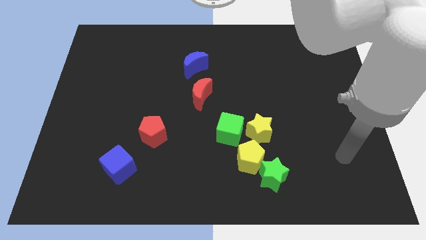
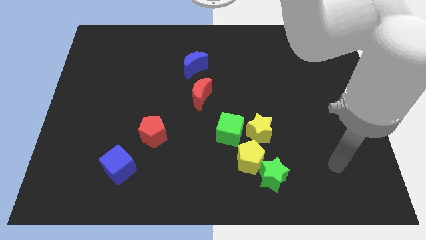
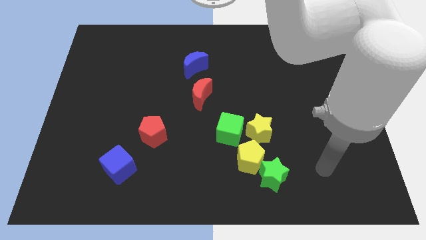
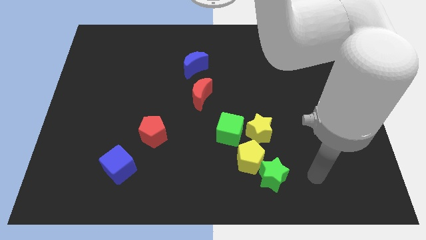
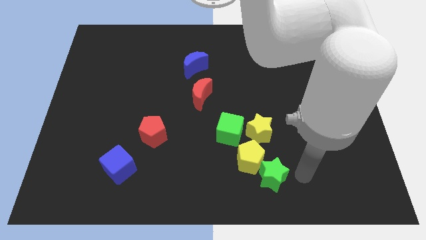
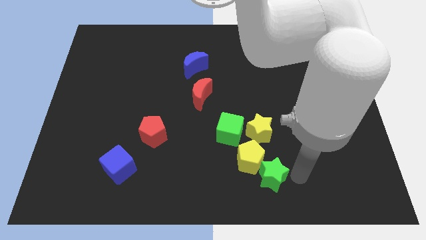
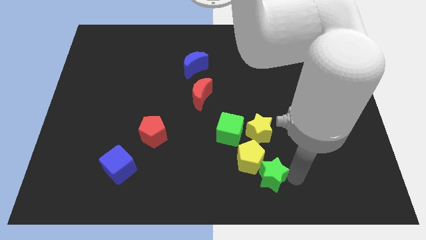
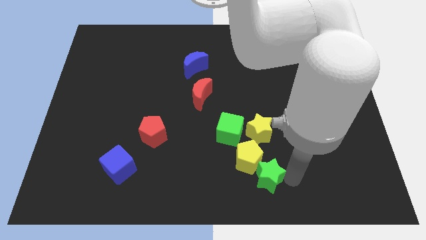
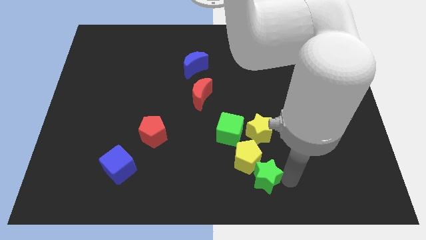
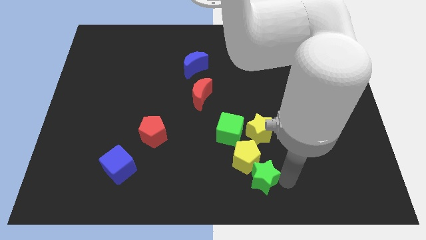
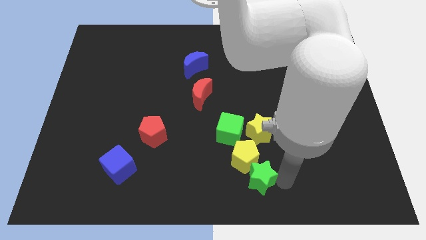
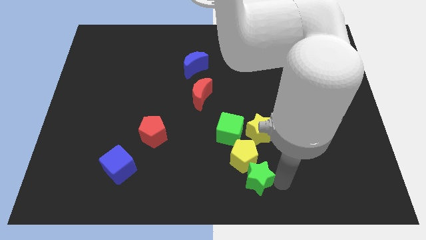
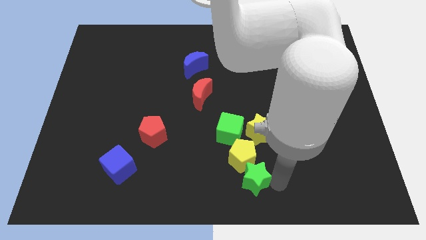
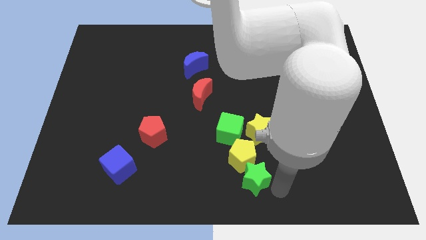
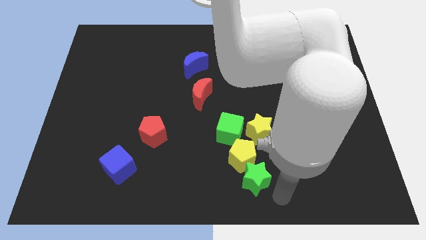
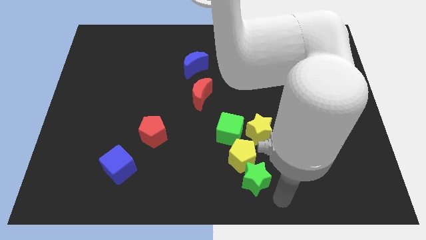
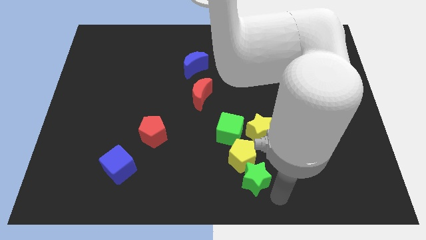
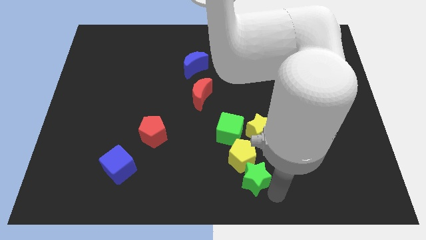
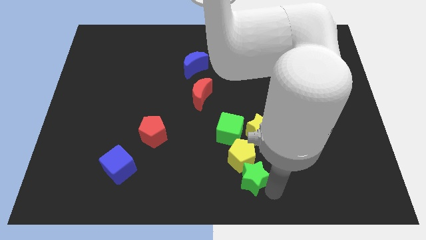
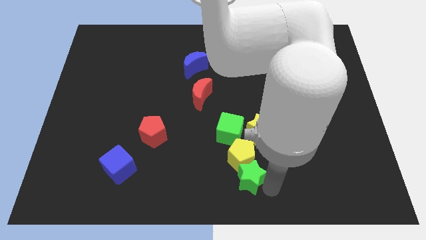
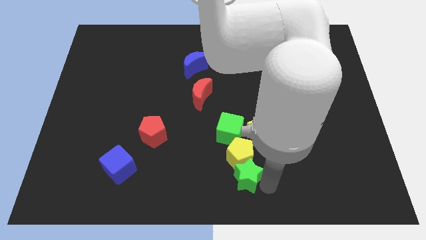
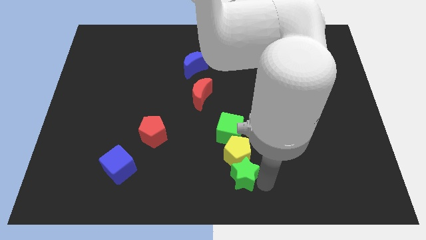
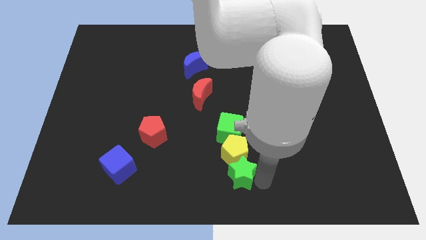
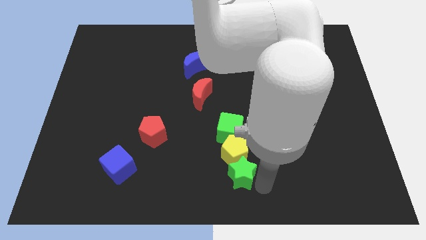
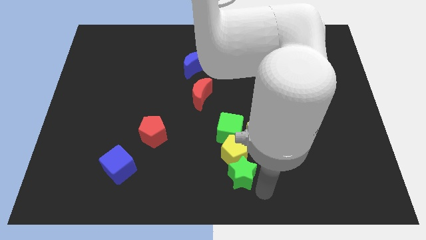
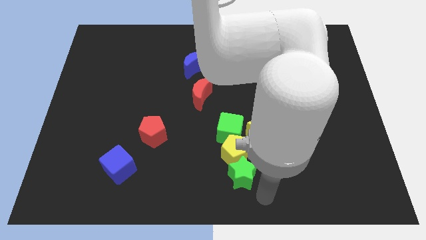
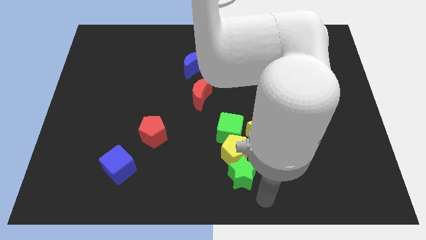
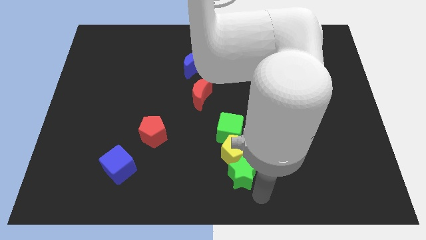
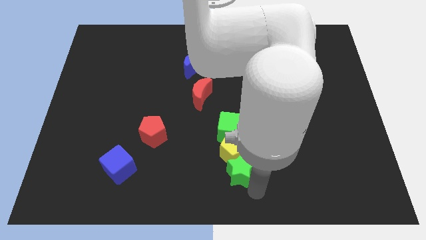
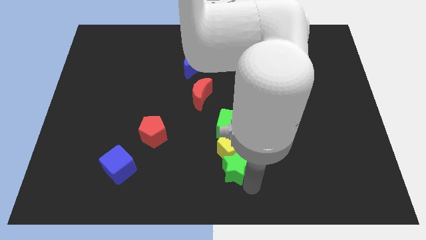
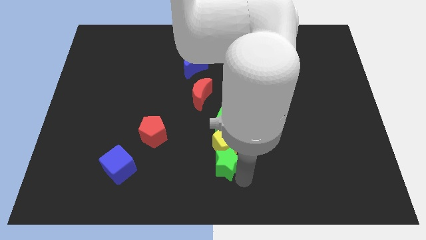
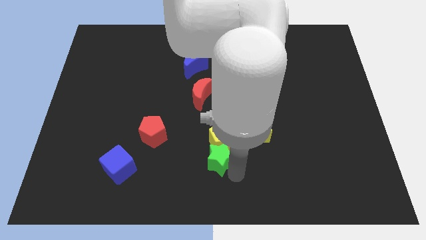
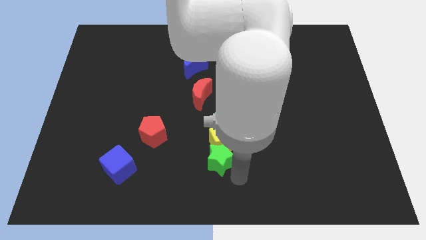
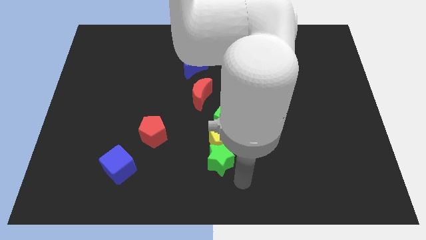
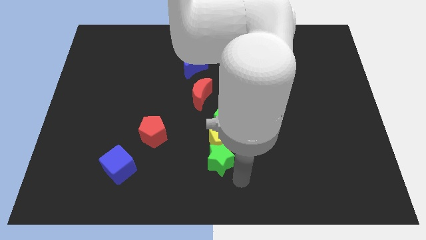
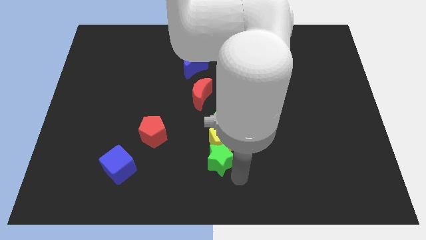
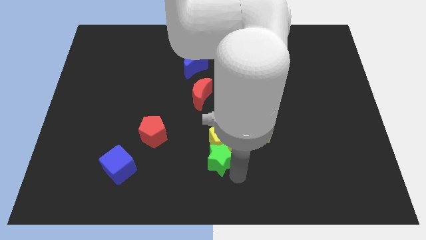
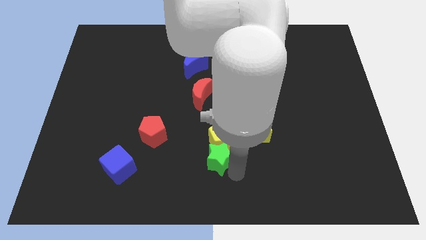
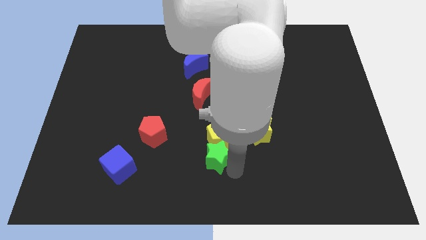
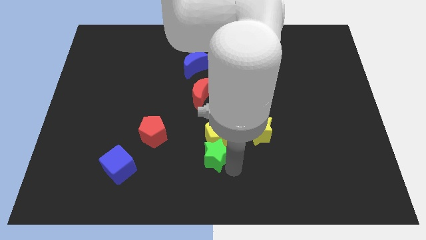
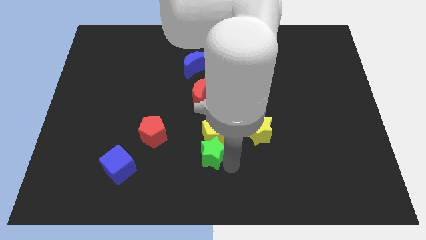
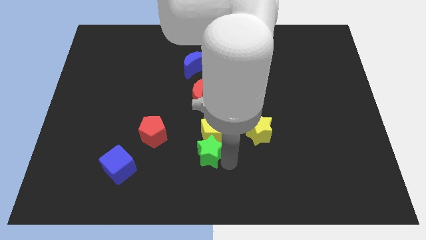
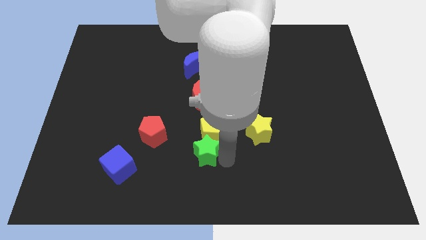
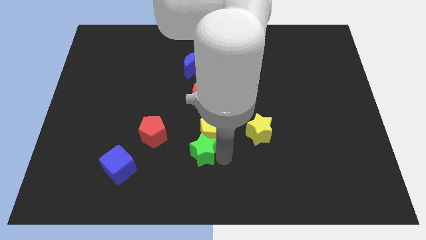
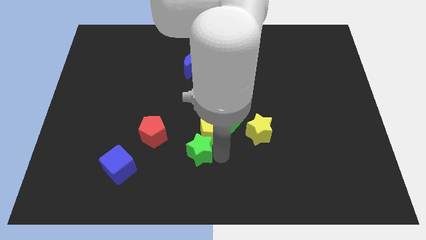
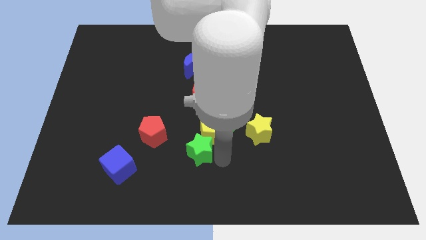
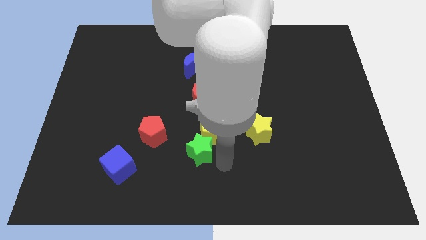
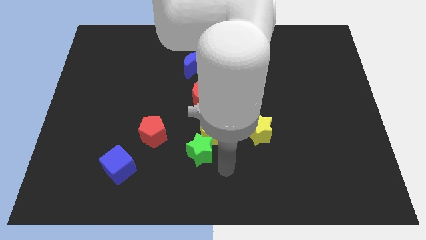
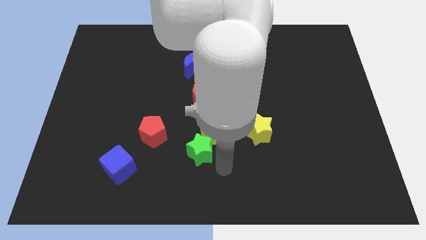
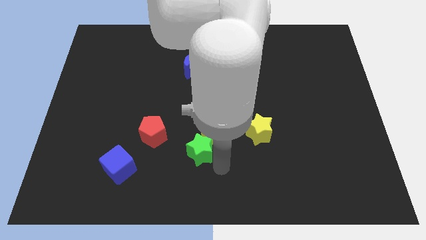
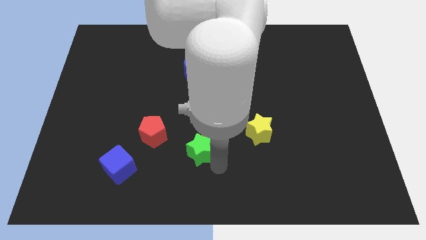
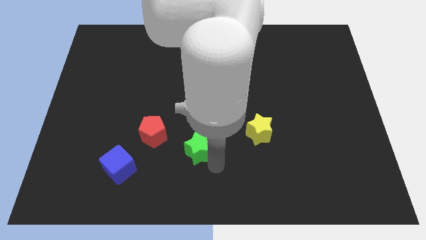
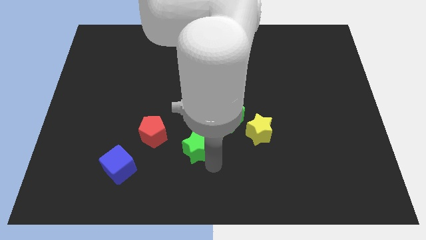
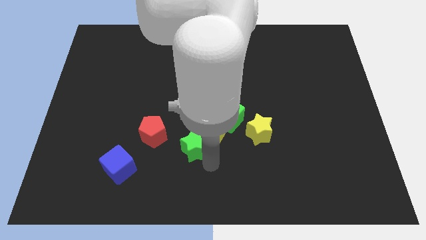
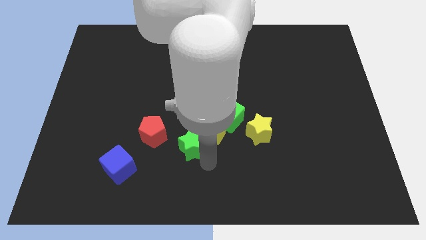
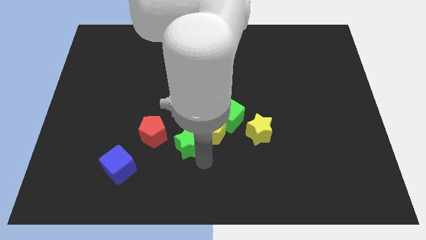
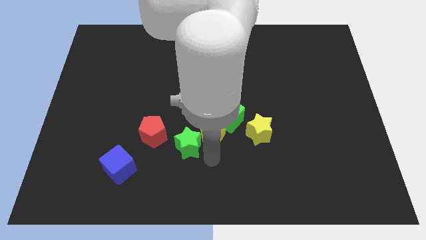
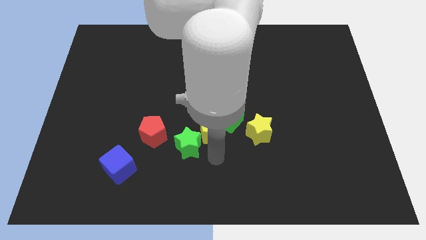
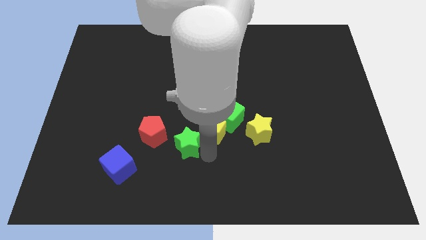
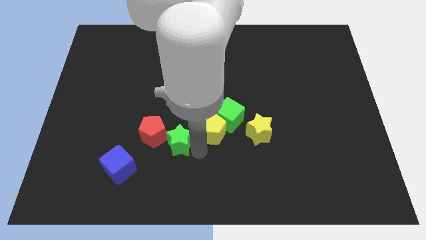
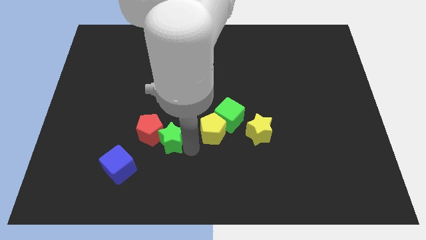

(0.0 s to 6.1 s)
put the green star to the red pentagon
